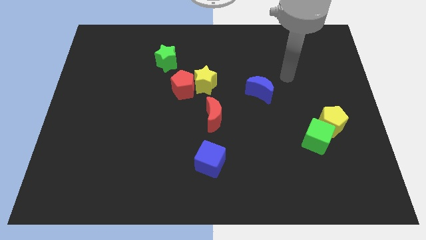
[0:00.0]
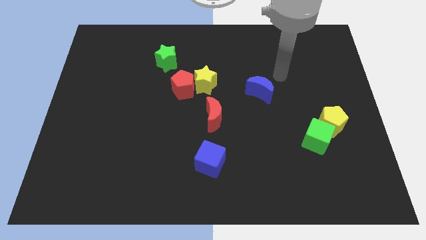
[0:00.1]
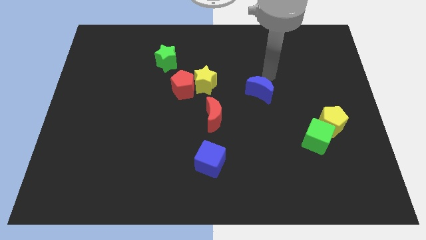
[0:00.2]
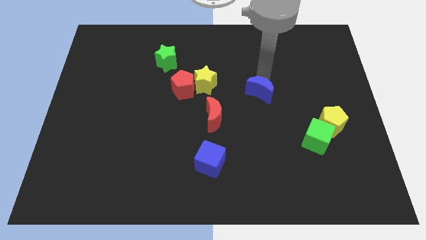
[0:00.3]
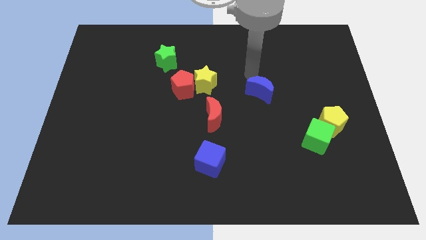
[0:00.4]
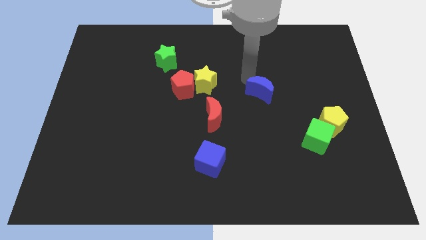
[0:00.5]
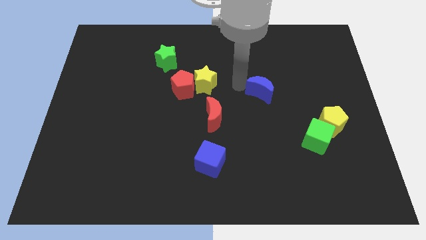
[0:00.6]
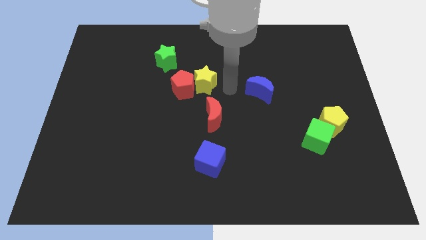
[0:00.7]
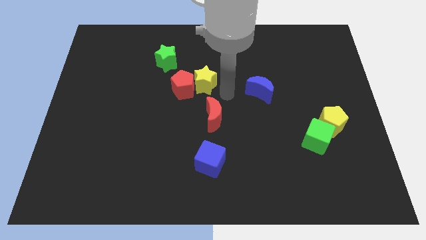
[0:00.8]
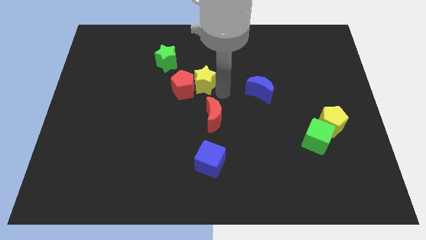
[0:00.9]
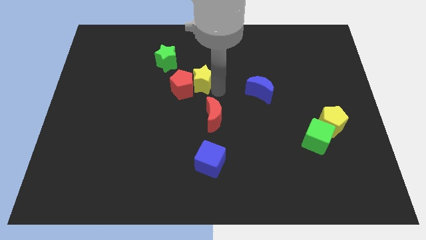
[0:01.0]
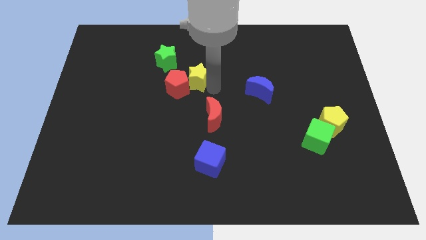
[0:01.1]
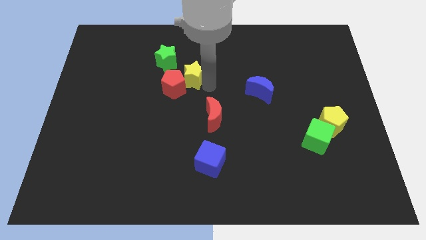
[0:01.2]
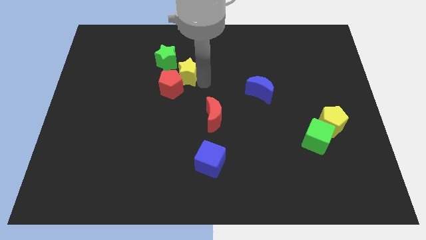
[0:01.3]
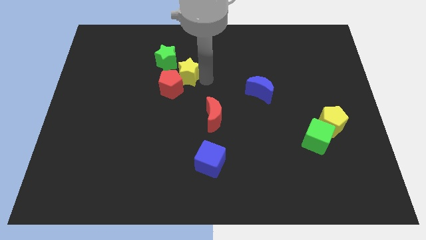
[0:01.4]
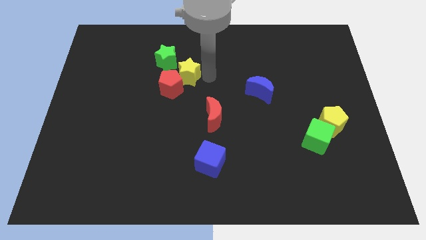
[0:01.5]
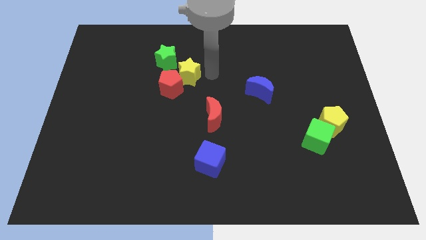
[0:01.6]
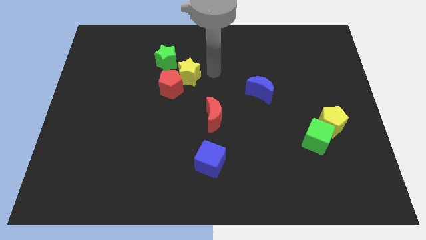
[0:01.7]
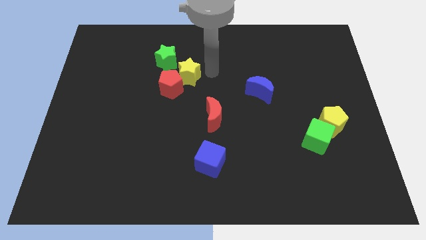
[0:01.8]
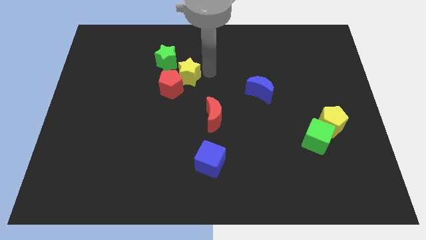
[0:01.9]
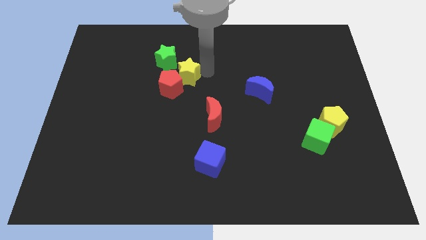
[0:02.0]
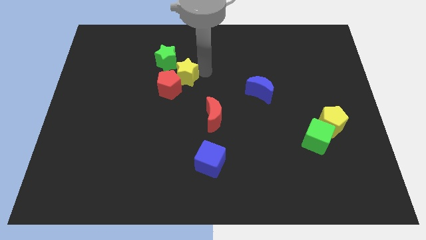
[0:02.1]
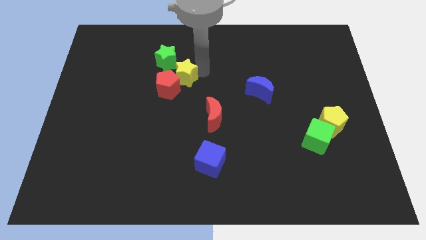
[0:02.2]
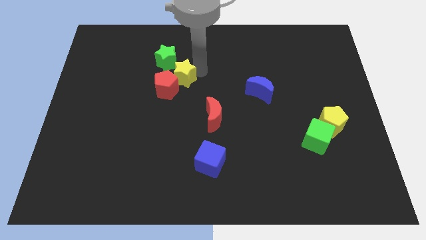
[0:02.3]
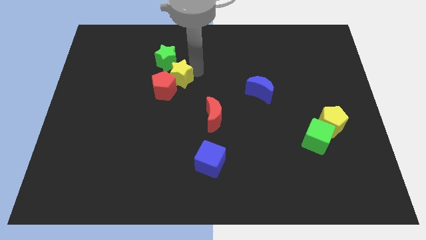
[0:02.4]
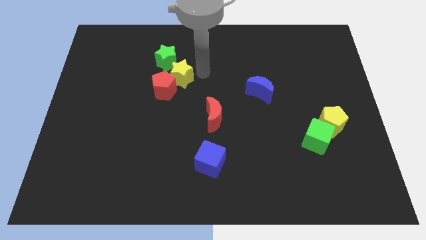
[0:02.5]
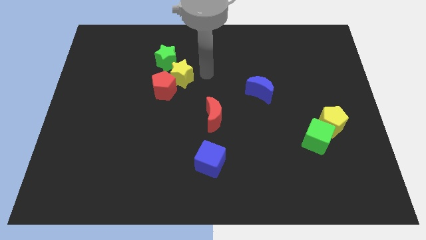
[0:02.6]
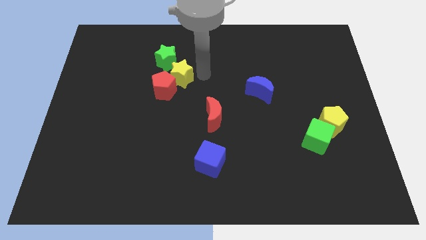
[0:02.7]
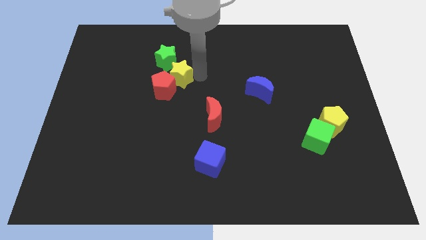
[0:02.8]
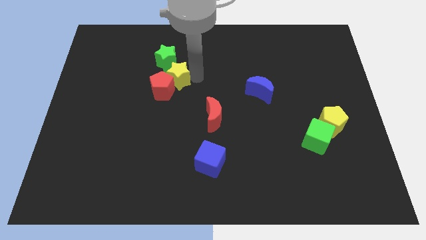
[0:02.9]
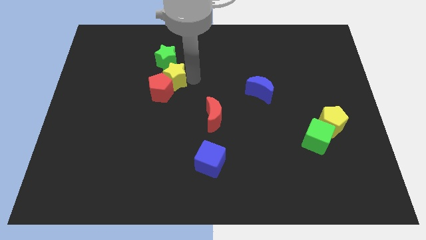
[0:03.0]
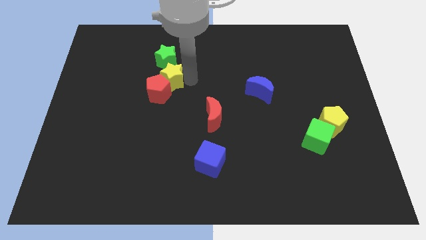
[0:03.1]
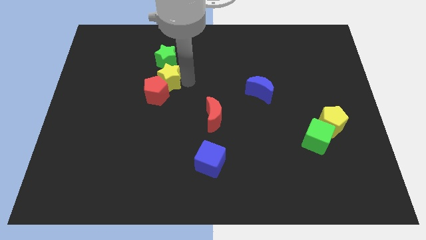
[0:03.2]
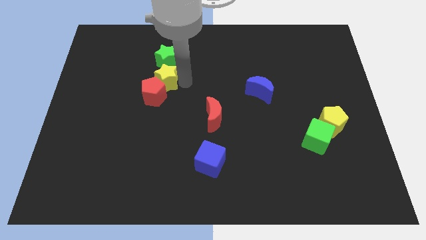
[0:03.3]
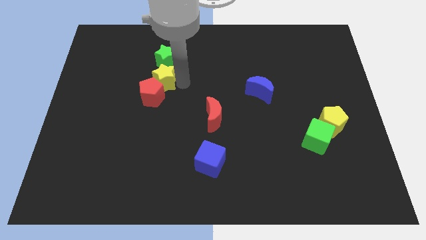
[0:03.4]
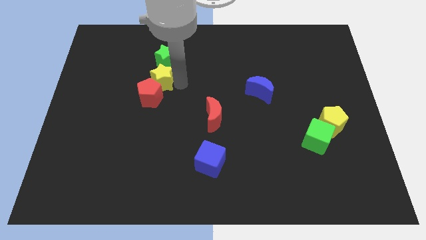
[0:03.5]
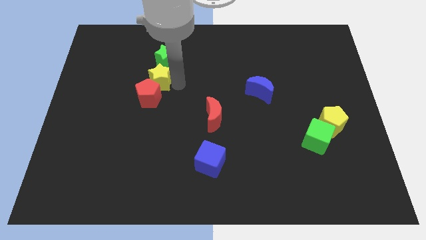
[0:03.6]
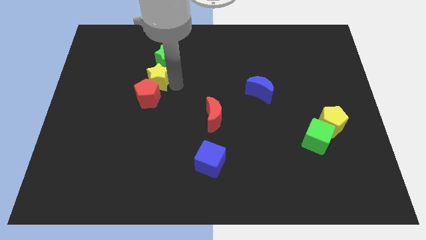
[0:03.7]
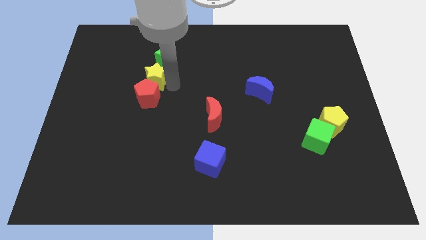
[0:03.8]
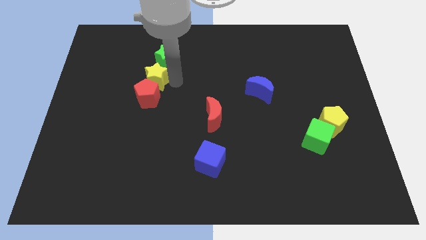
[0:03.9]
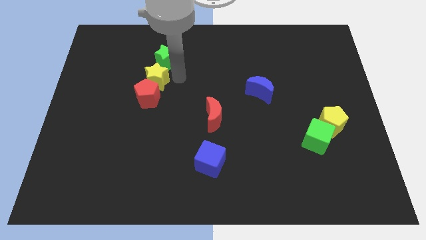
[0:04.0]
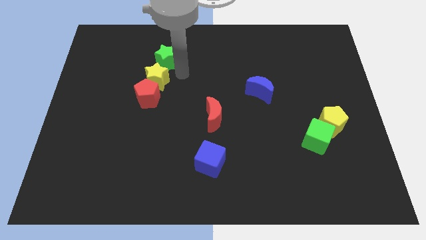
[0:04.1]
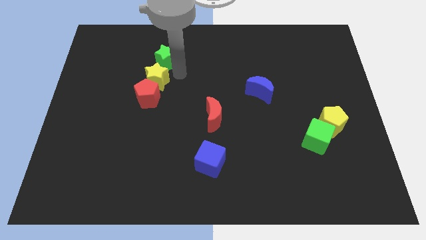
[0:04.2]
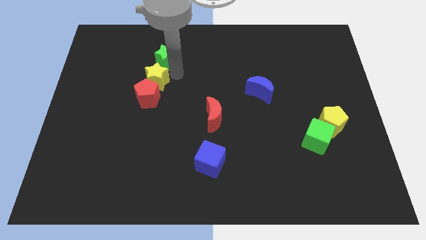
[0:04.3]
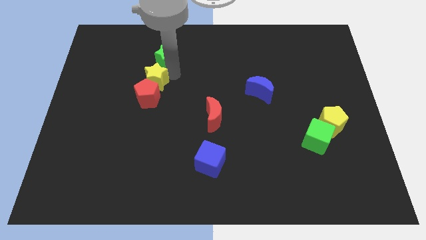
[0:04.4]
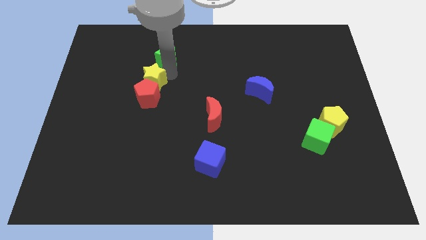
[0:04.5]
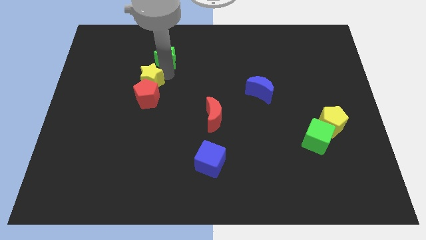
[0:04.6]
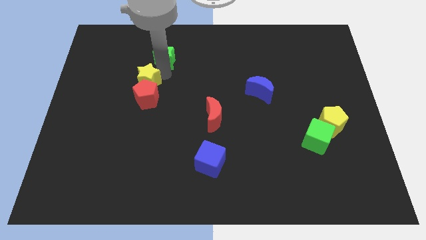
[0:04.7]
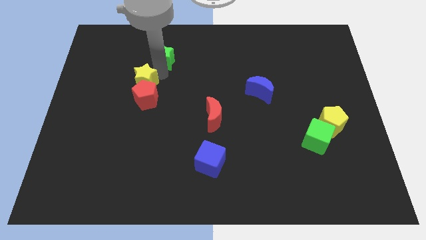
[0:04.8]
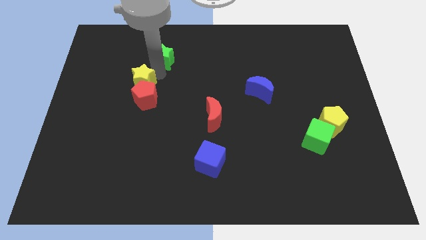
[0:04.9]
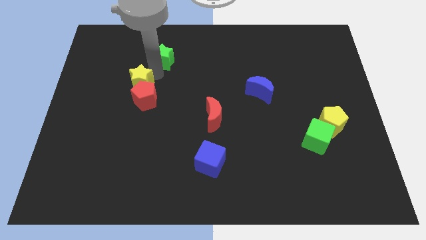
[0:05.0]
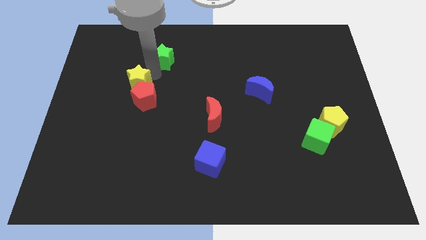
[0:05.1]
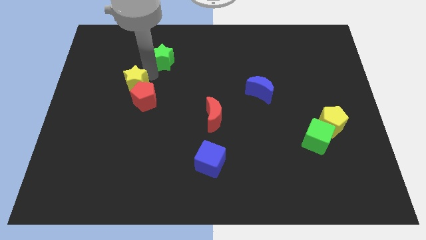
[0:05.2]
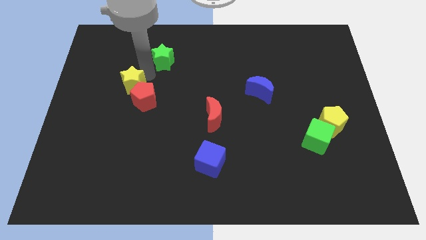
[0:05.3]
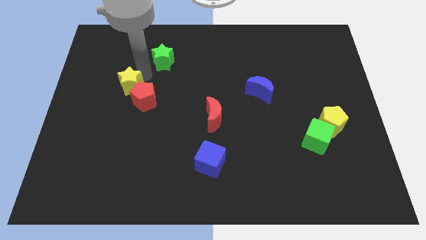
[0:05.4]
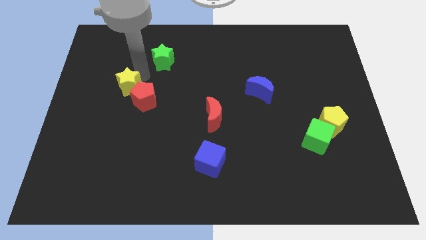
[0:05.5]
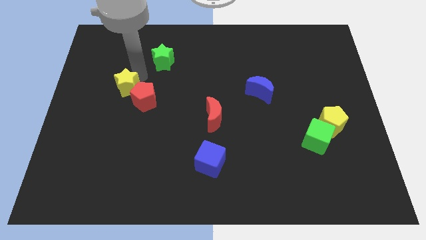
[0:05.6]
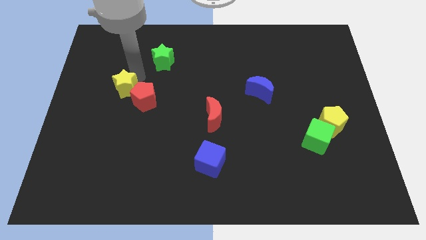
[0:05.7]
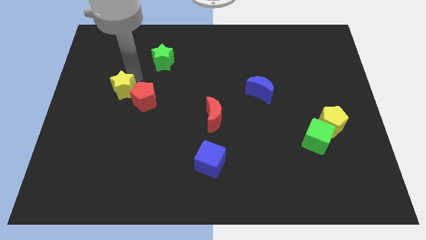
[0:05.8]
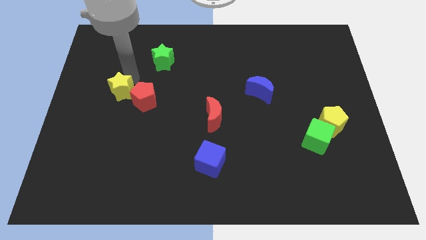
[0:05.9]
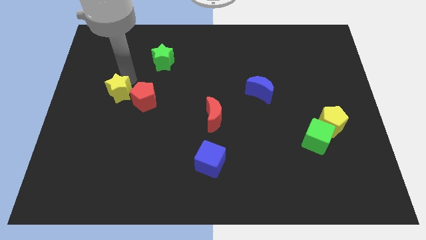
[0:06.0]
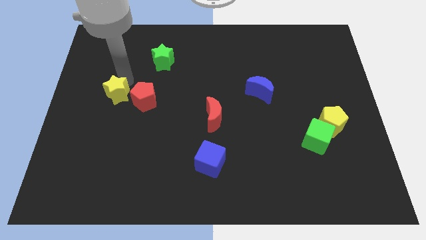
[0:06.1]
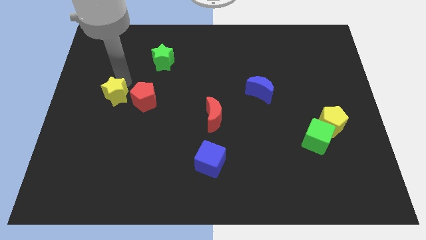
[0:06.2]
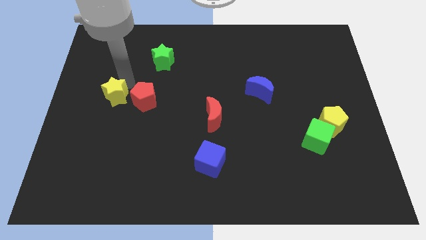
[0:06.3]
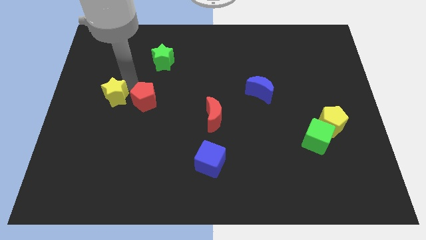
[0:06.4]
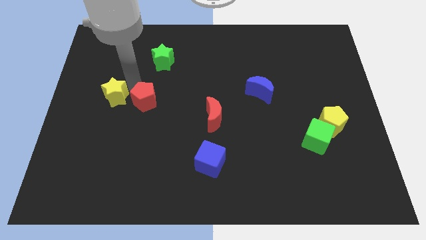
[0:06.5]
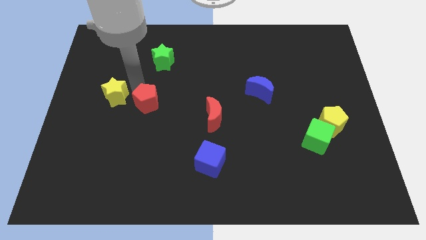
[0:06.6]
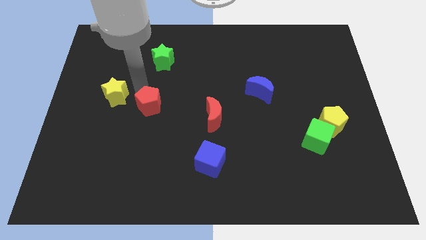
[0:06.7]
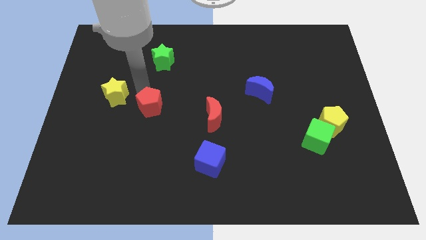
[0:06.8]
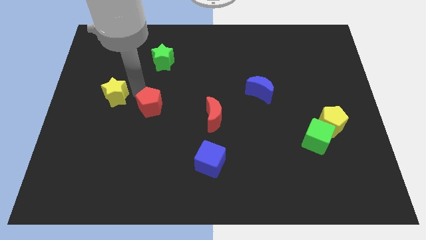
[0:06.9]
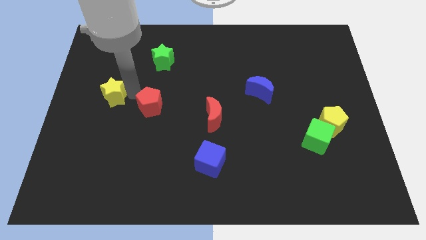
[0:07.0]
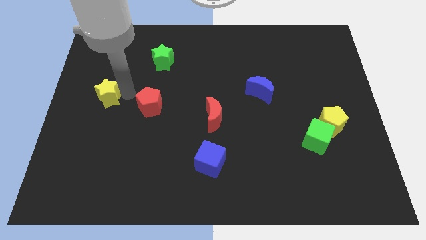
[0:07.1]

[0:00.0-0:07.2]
slide the yellow star to the center left
